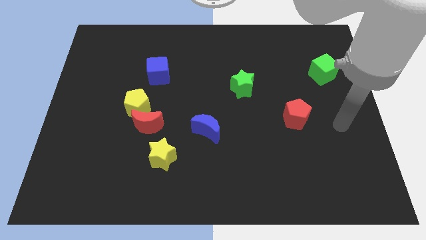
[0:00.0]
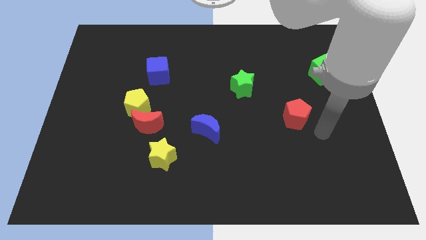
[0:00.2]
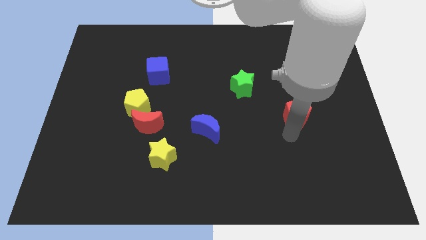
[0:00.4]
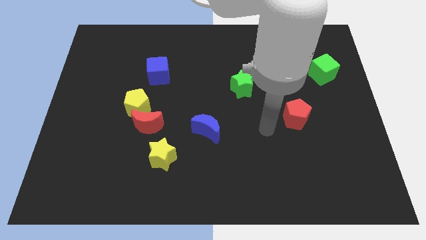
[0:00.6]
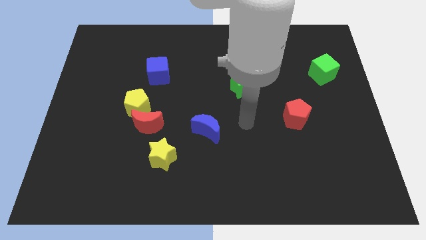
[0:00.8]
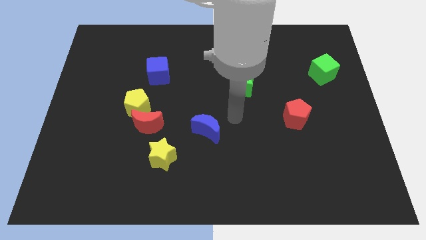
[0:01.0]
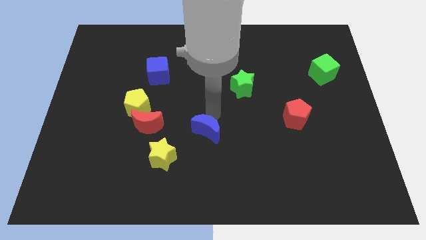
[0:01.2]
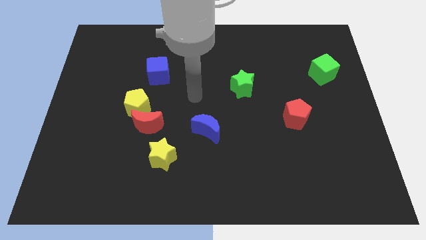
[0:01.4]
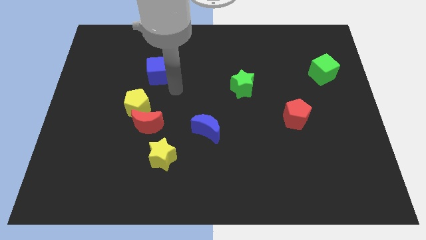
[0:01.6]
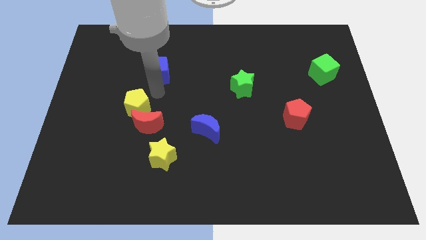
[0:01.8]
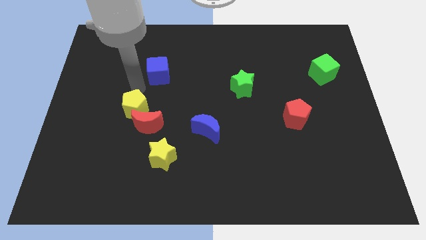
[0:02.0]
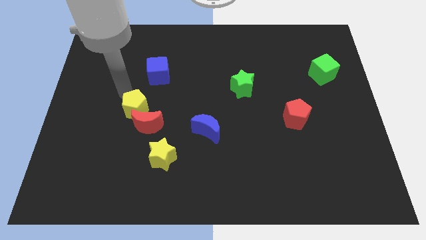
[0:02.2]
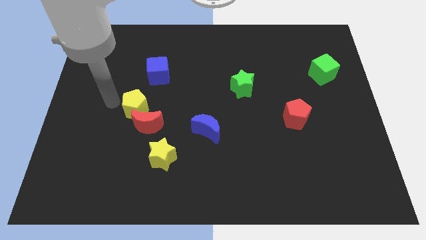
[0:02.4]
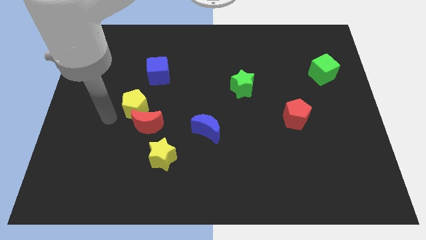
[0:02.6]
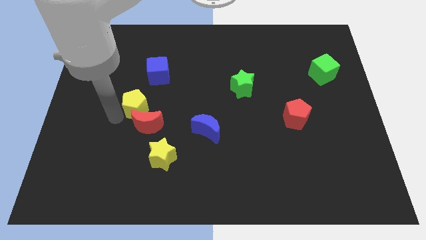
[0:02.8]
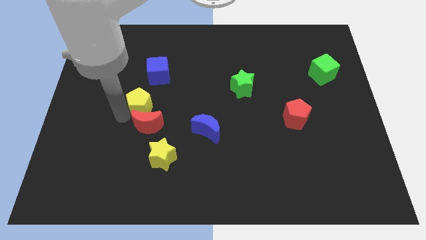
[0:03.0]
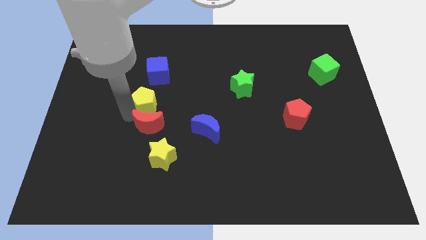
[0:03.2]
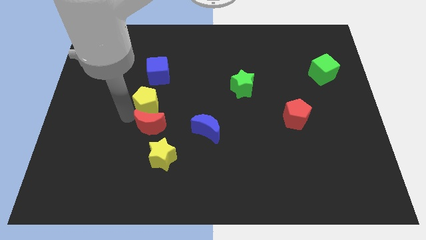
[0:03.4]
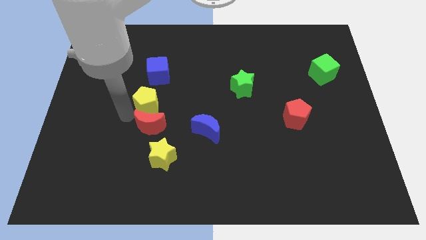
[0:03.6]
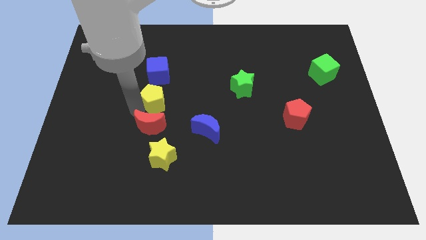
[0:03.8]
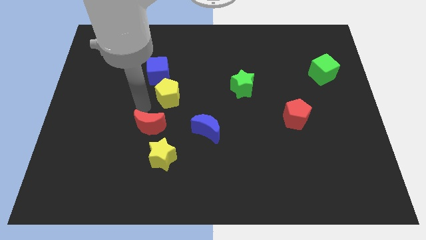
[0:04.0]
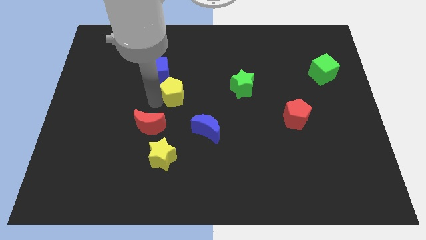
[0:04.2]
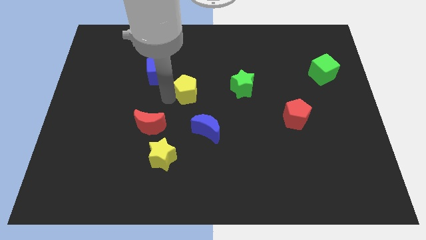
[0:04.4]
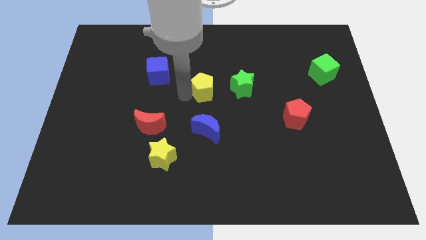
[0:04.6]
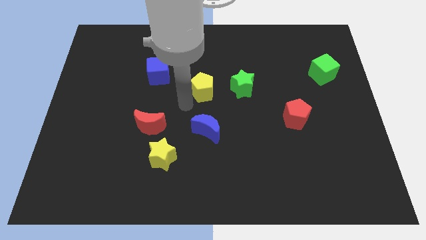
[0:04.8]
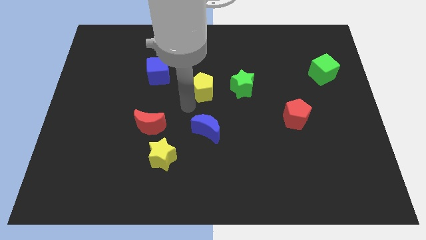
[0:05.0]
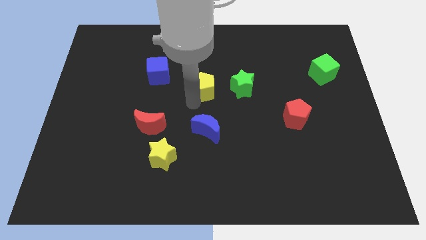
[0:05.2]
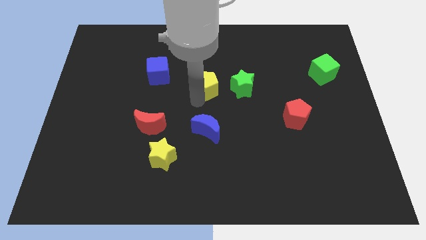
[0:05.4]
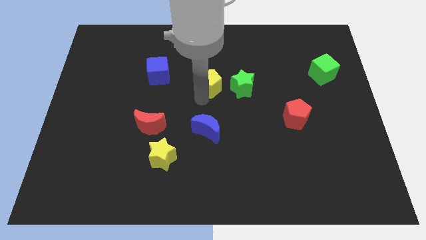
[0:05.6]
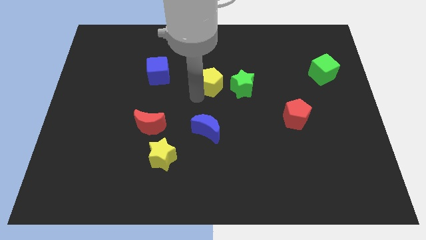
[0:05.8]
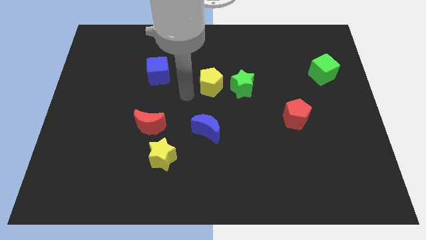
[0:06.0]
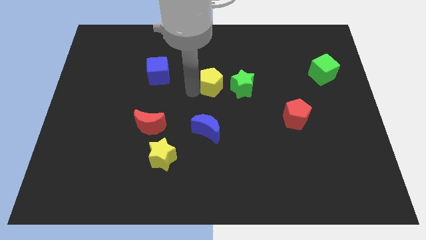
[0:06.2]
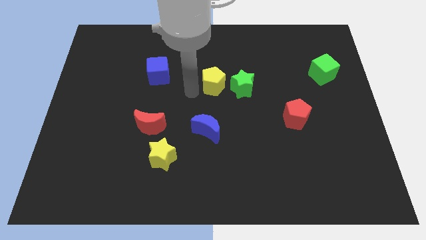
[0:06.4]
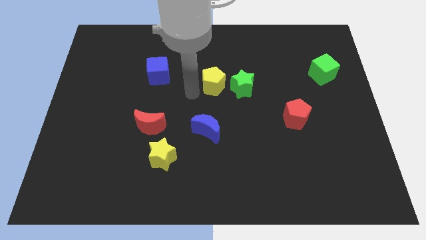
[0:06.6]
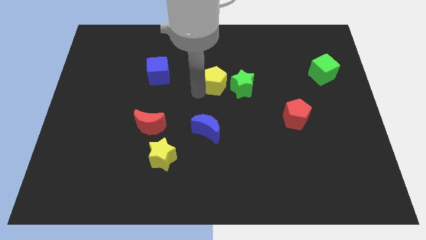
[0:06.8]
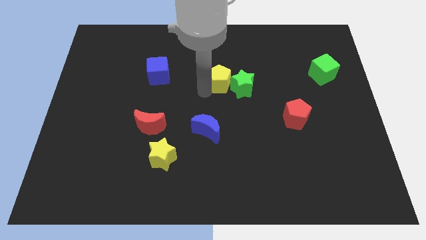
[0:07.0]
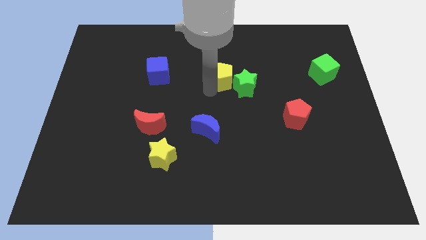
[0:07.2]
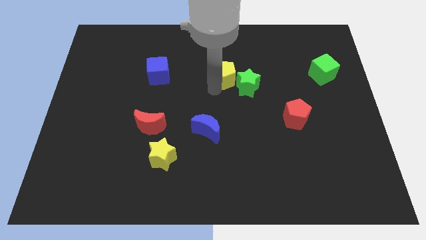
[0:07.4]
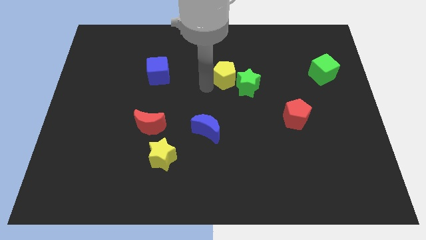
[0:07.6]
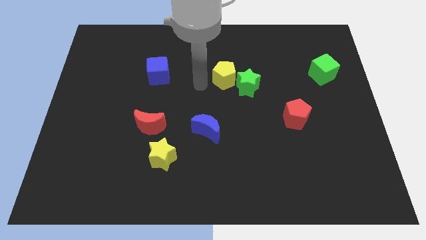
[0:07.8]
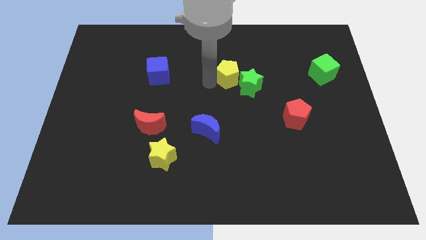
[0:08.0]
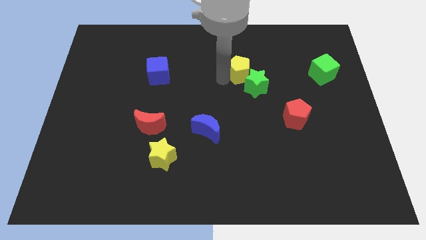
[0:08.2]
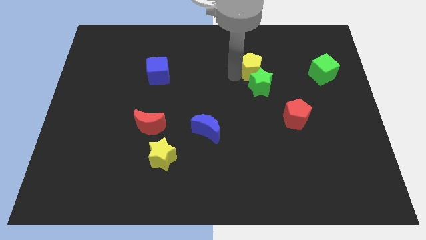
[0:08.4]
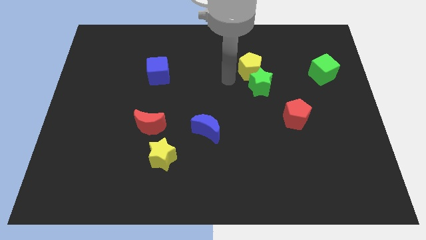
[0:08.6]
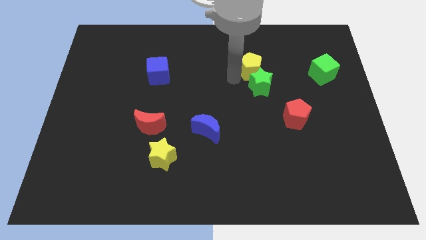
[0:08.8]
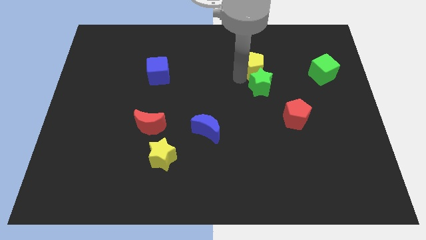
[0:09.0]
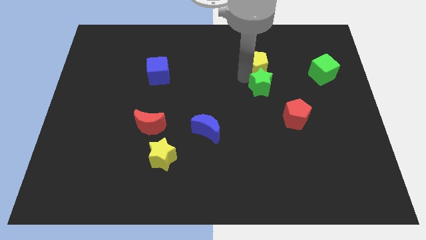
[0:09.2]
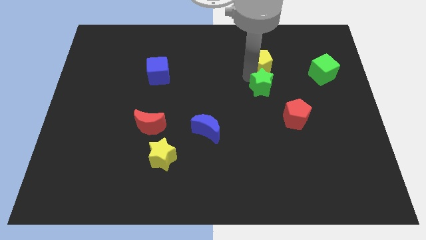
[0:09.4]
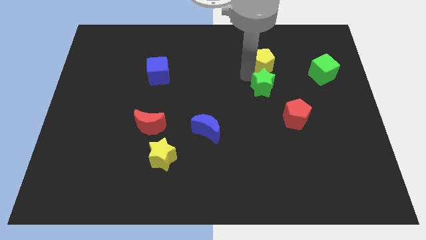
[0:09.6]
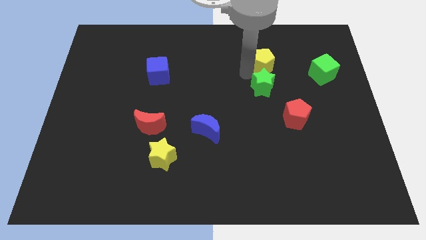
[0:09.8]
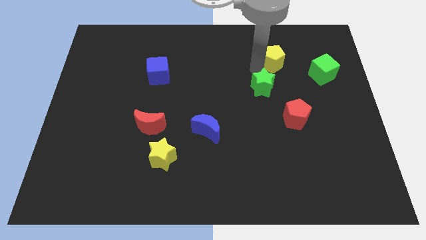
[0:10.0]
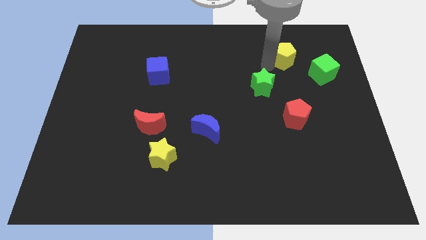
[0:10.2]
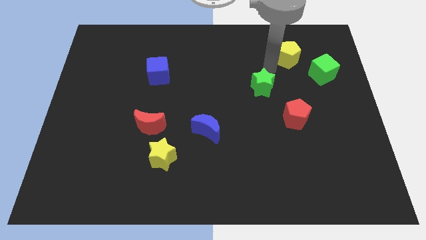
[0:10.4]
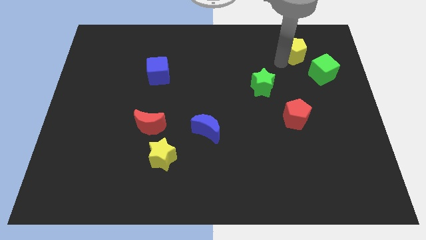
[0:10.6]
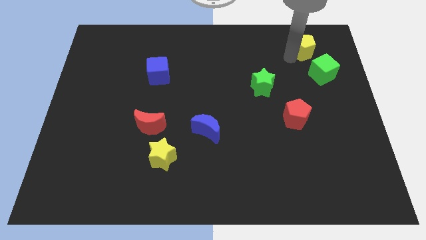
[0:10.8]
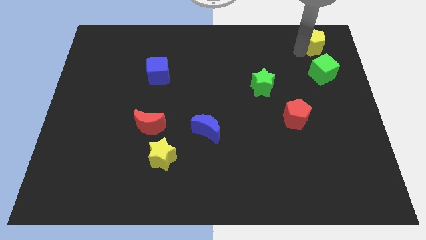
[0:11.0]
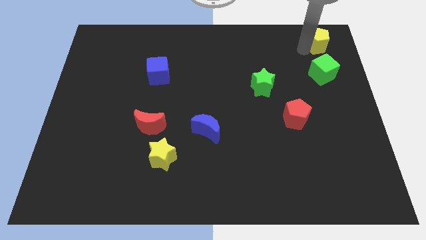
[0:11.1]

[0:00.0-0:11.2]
push the yellow pentagon to the upper right corner

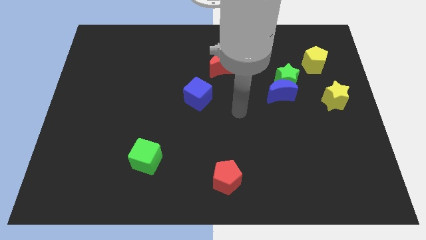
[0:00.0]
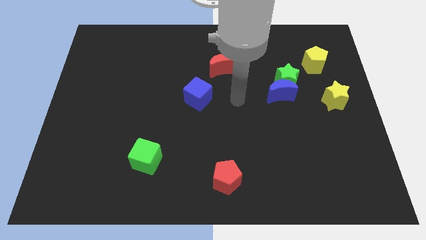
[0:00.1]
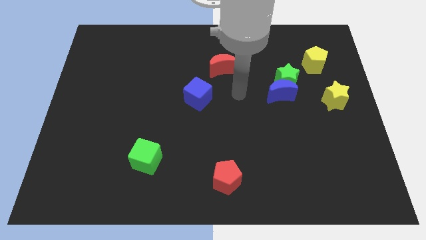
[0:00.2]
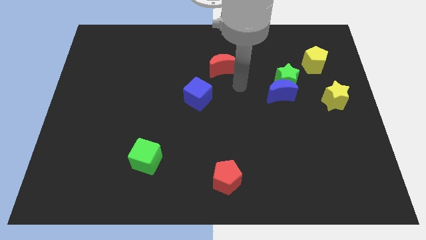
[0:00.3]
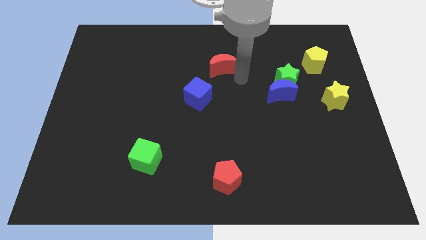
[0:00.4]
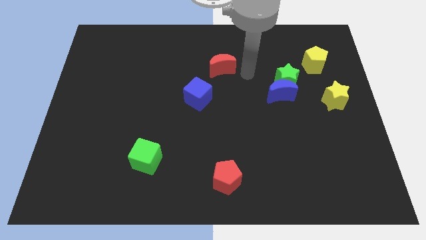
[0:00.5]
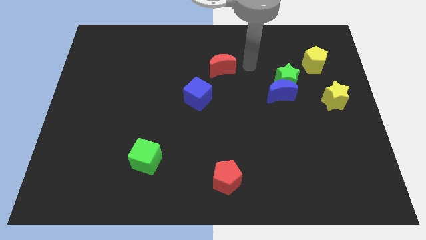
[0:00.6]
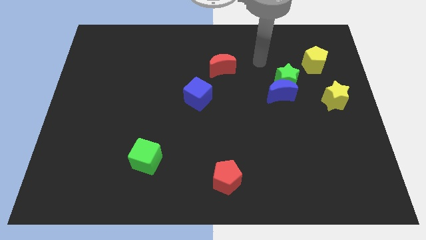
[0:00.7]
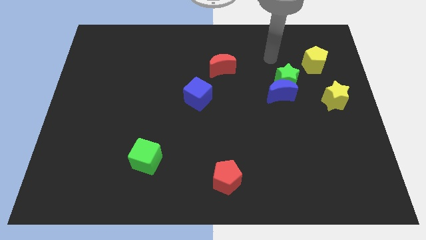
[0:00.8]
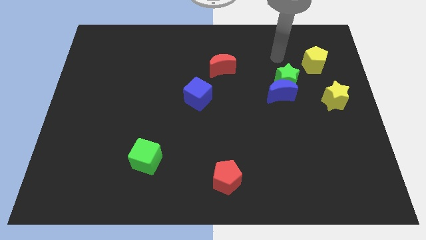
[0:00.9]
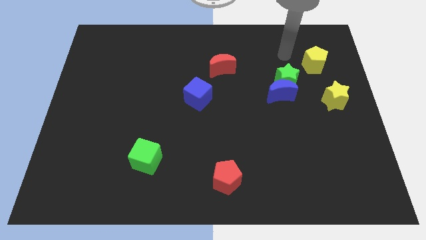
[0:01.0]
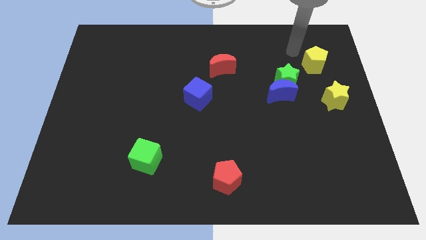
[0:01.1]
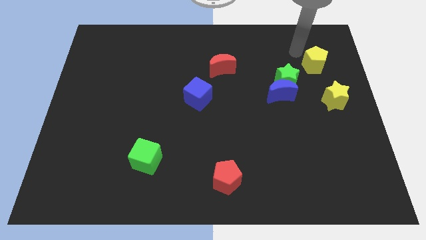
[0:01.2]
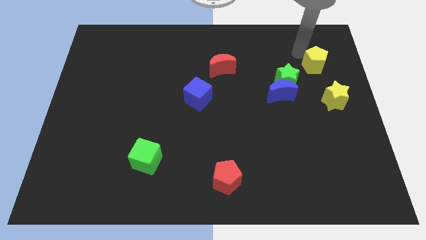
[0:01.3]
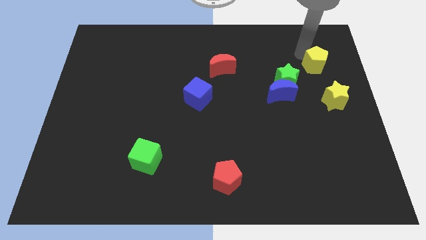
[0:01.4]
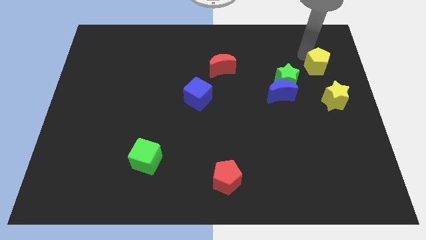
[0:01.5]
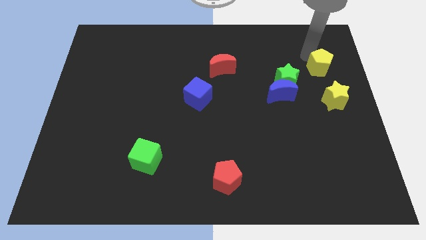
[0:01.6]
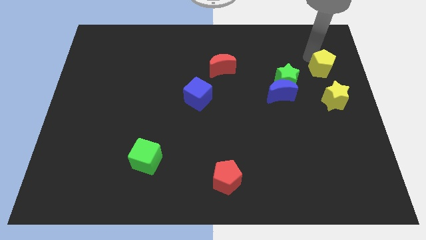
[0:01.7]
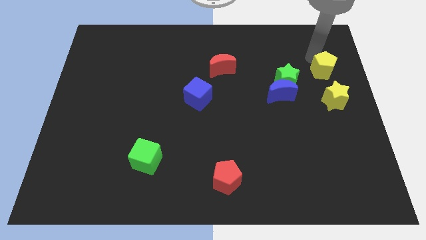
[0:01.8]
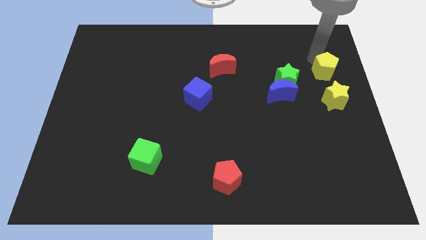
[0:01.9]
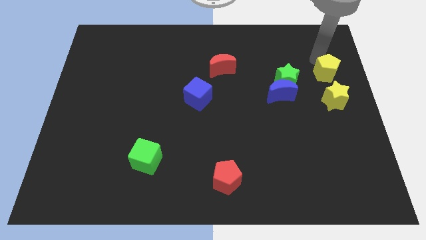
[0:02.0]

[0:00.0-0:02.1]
move the yellow pentagon to the center right
